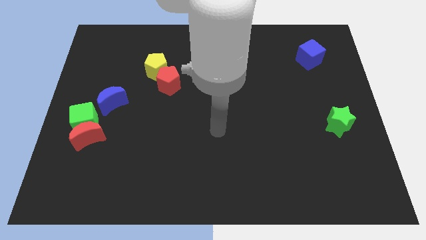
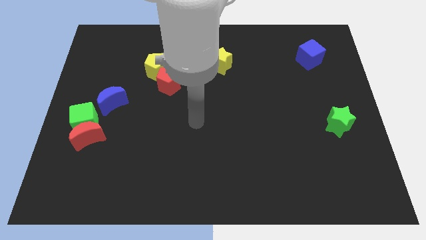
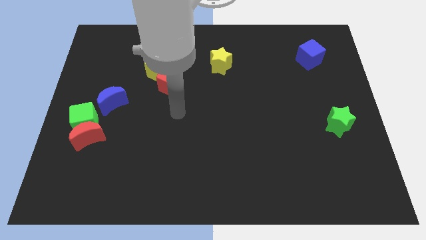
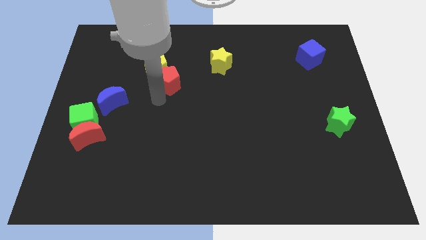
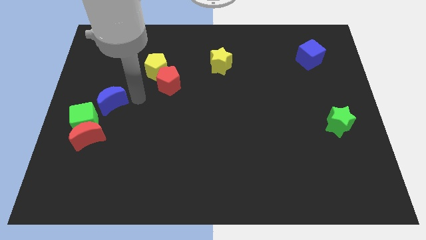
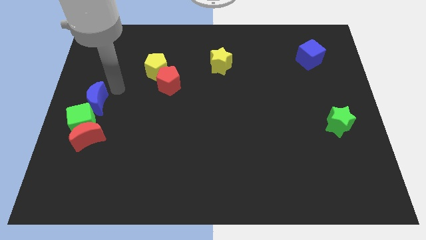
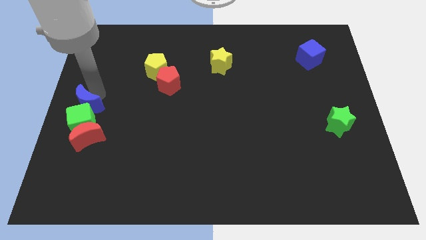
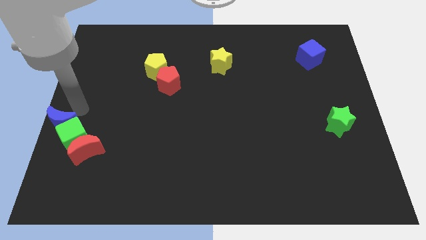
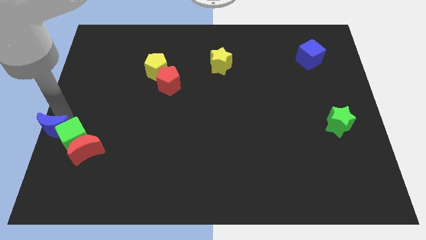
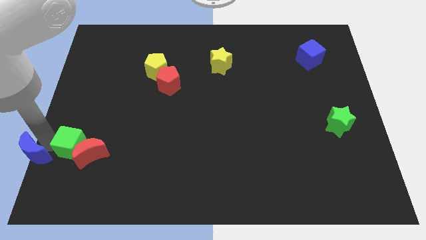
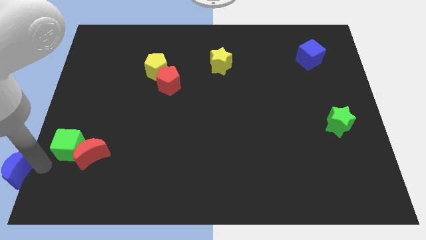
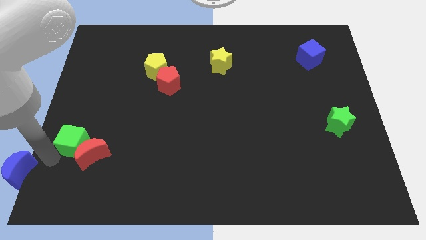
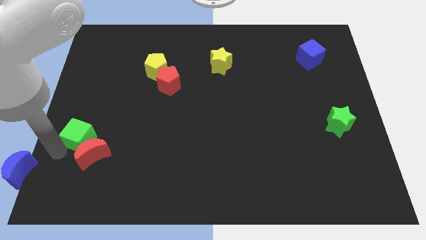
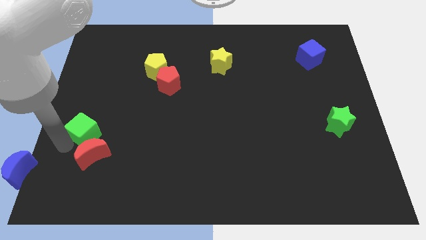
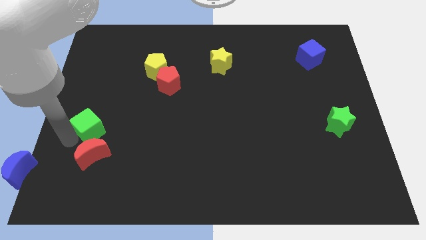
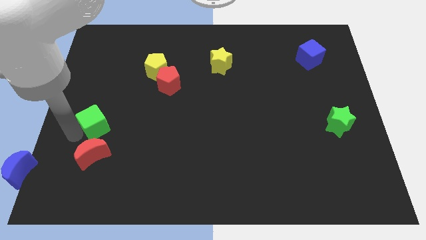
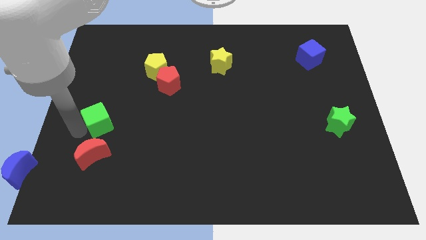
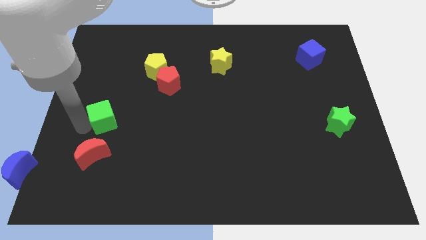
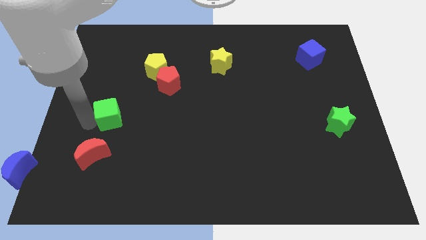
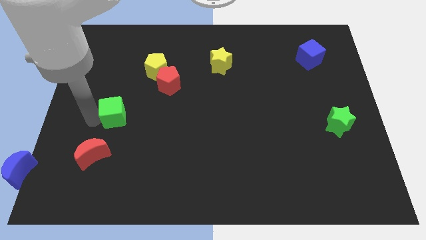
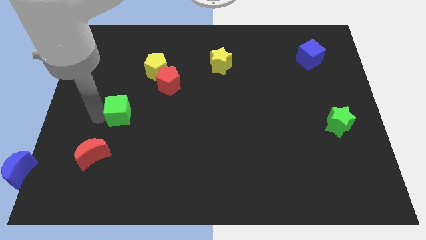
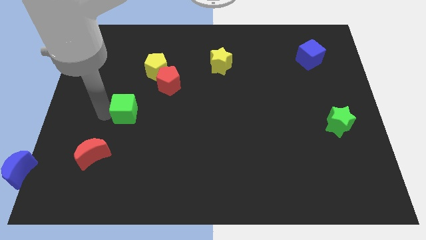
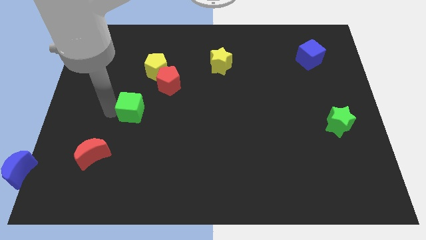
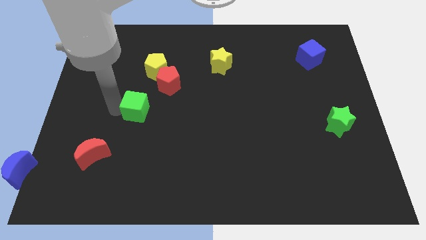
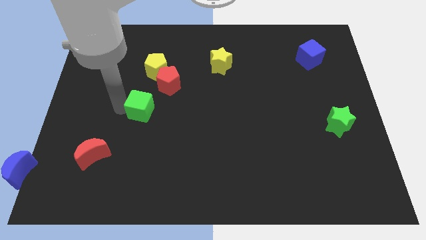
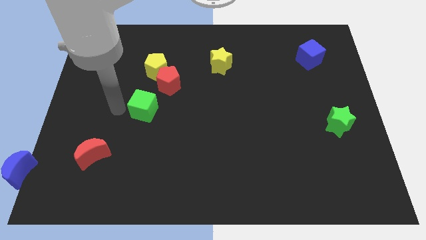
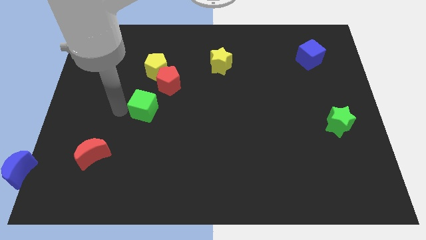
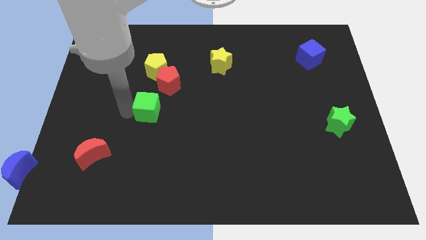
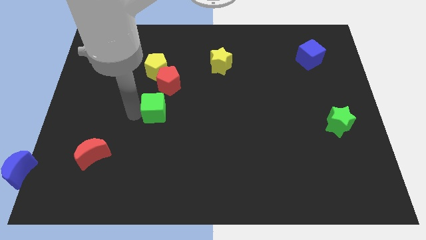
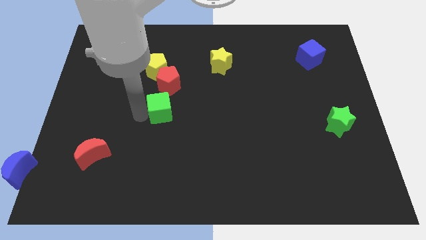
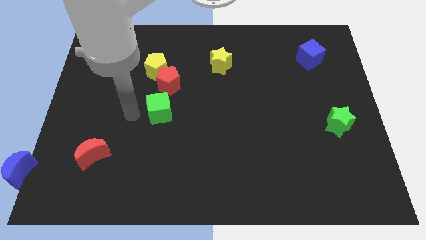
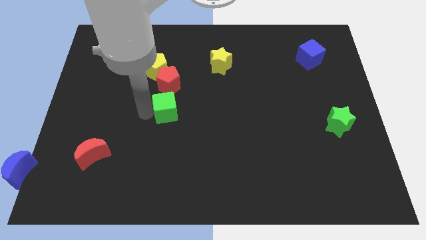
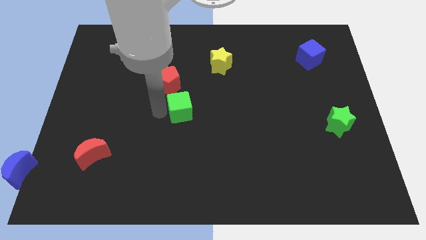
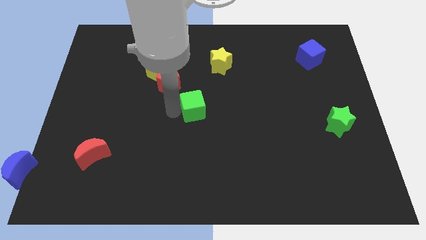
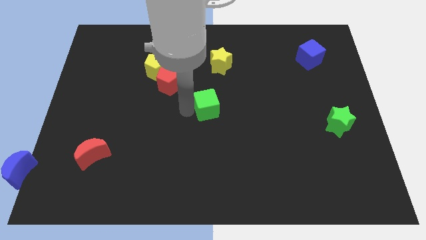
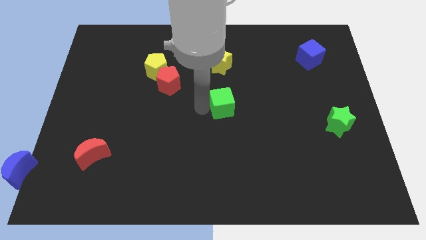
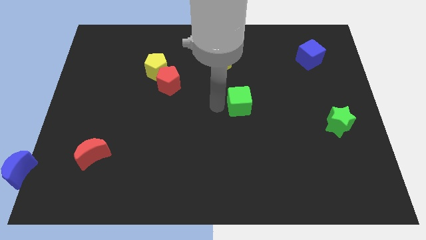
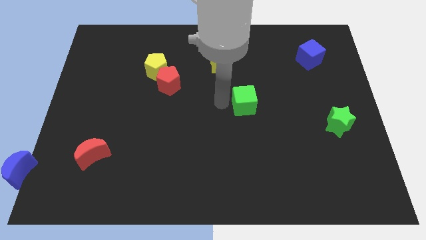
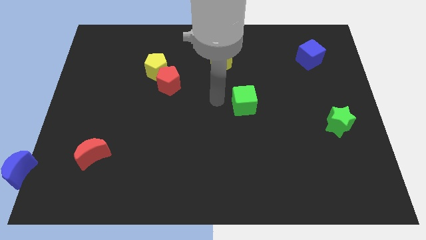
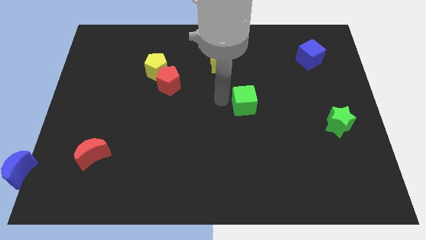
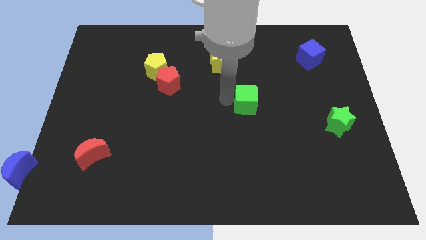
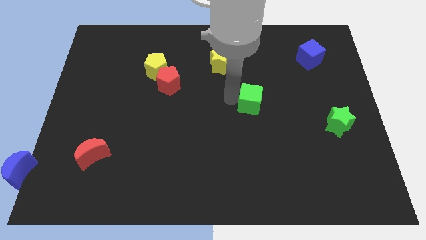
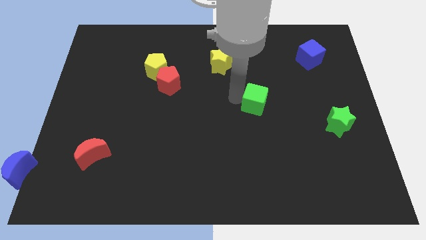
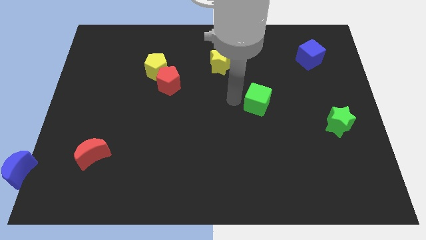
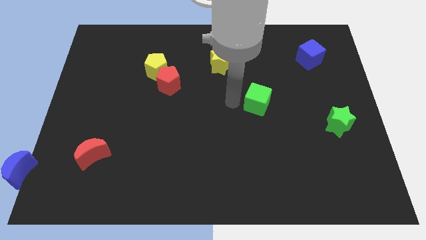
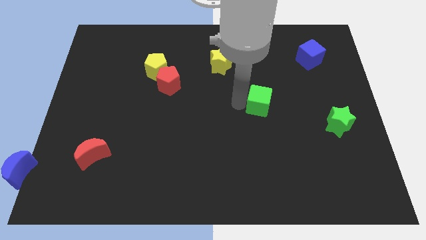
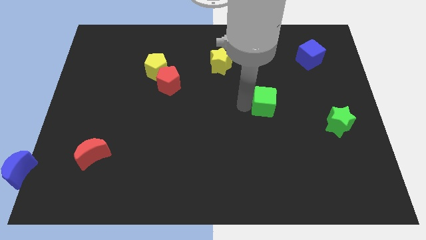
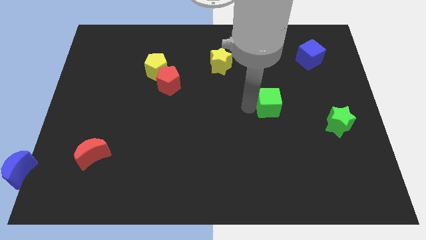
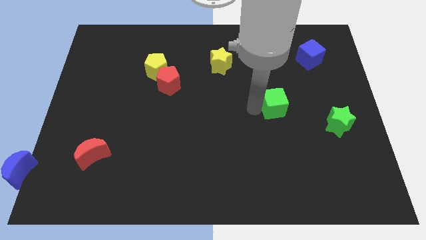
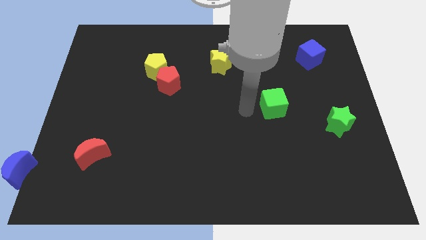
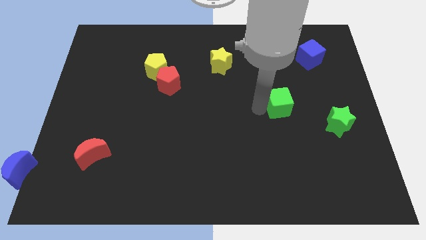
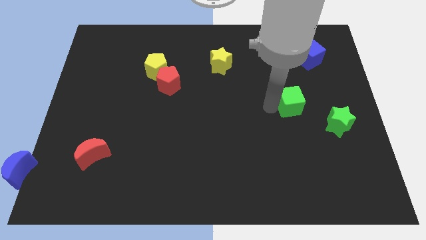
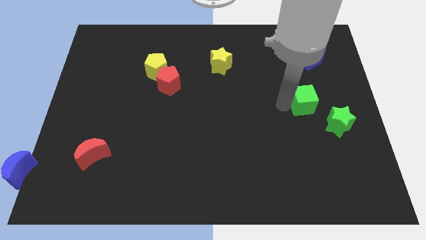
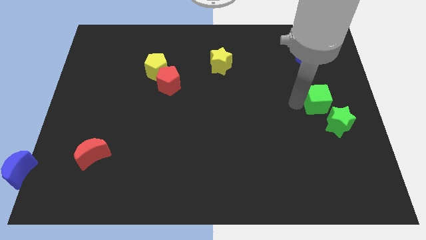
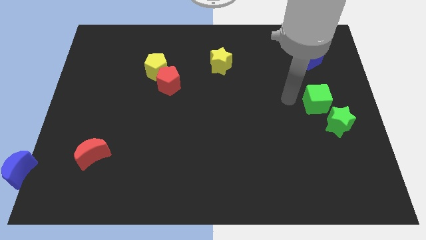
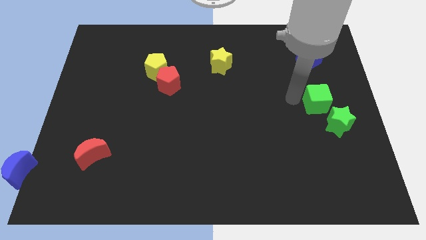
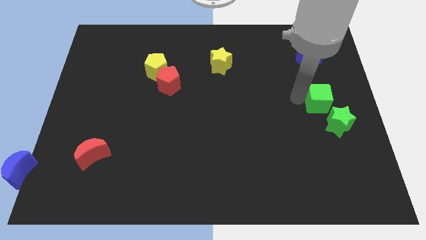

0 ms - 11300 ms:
move the green cube to the right side of the board
